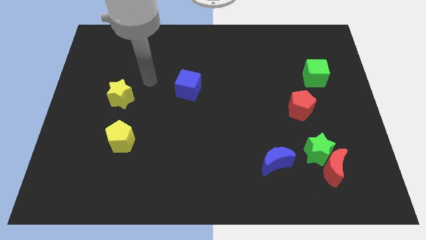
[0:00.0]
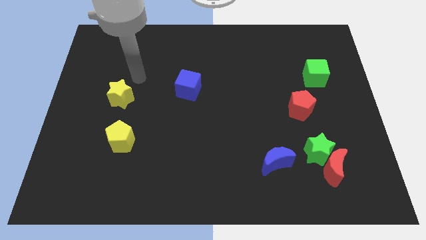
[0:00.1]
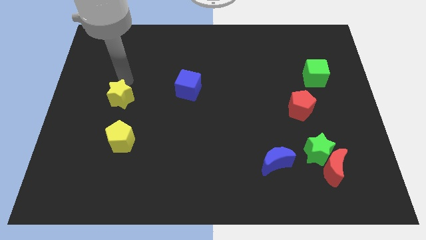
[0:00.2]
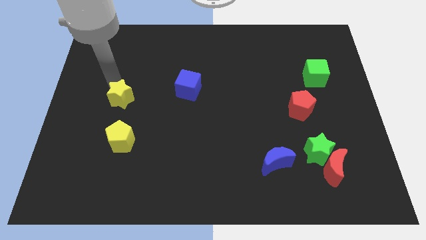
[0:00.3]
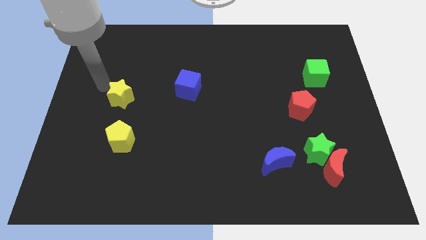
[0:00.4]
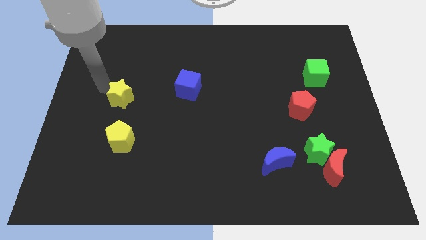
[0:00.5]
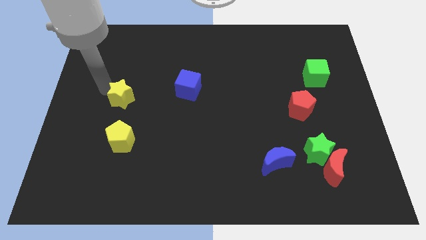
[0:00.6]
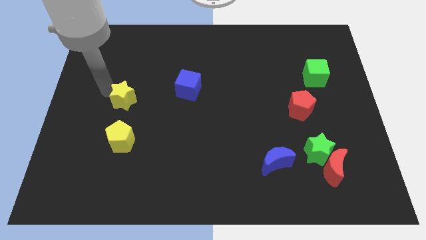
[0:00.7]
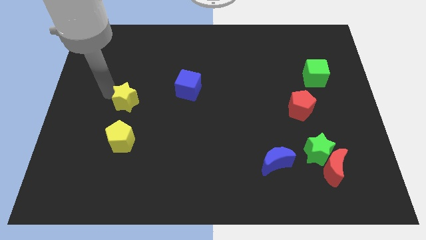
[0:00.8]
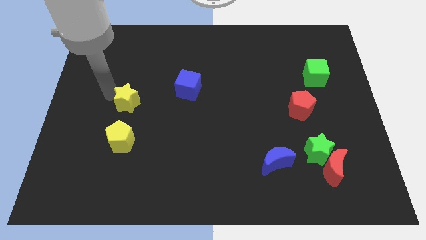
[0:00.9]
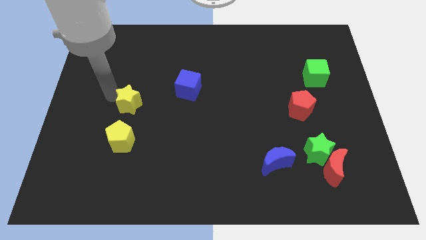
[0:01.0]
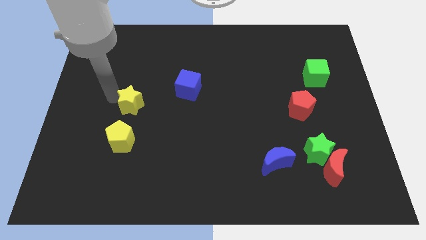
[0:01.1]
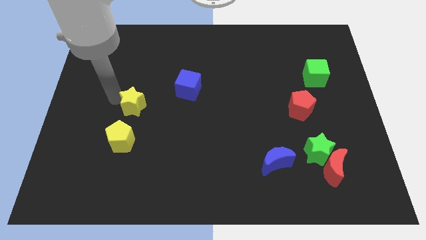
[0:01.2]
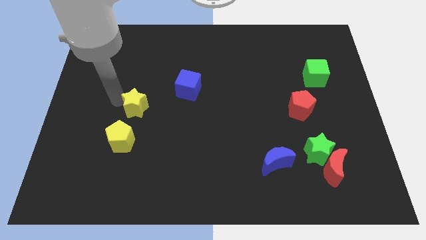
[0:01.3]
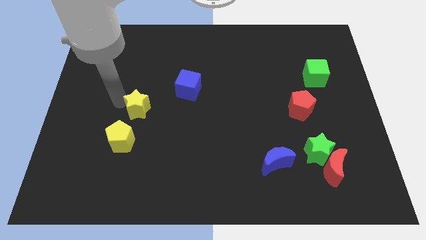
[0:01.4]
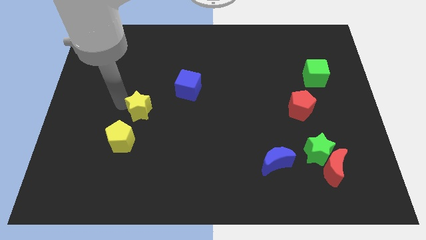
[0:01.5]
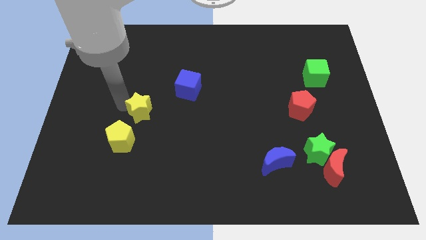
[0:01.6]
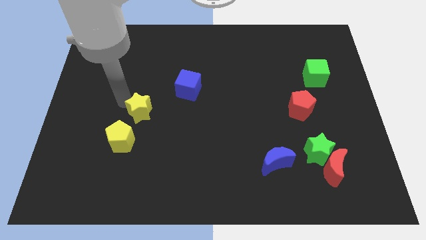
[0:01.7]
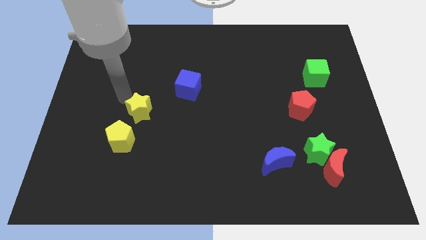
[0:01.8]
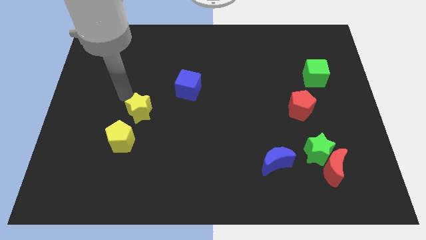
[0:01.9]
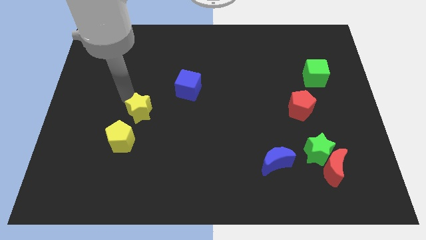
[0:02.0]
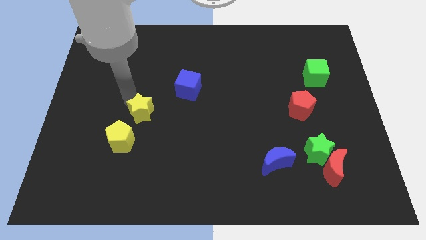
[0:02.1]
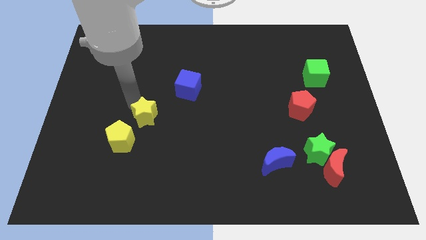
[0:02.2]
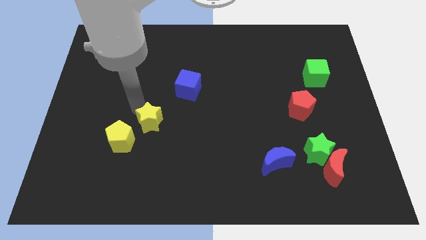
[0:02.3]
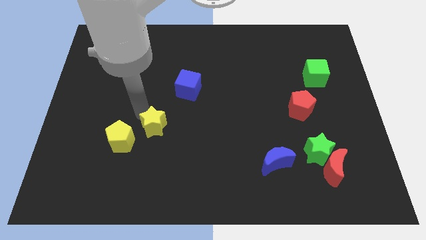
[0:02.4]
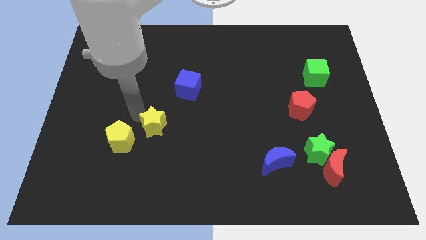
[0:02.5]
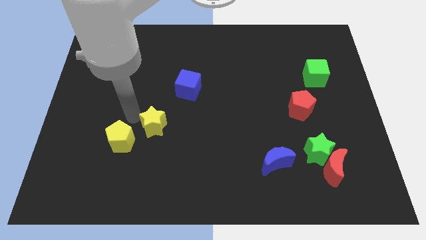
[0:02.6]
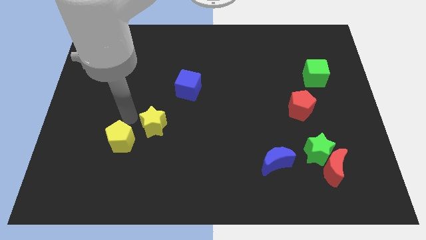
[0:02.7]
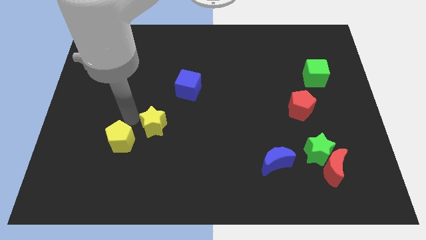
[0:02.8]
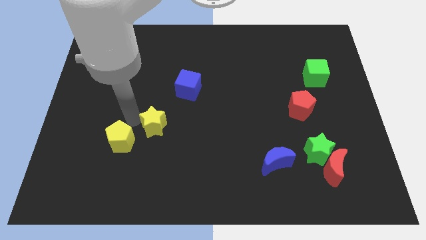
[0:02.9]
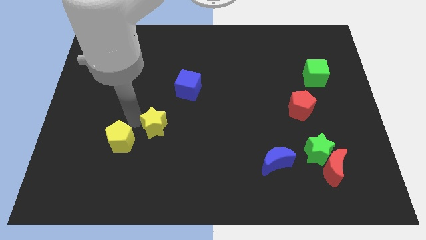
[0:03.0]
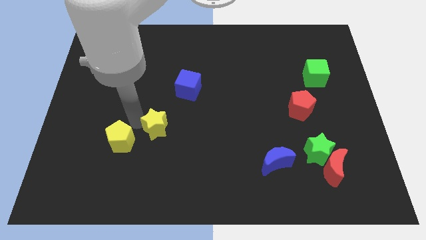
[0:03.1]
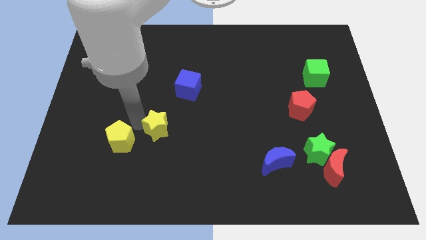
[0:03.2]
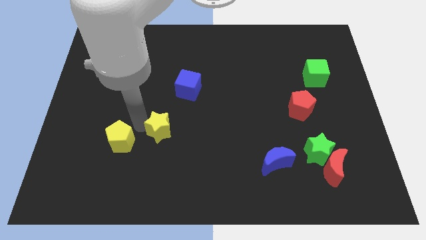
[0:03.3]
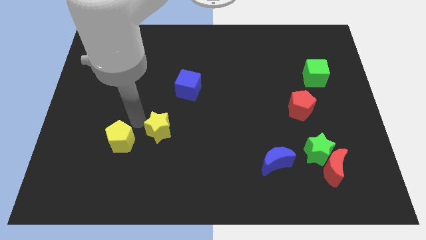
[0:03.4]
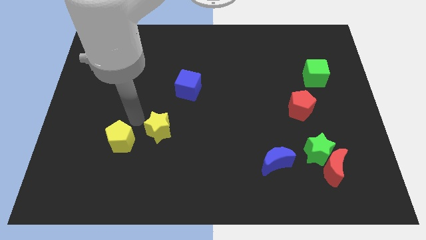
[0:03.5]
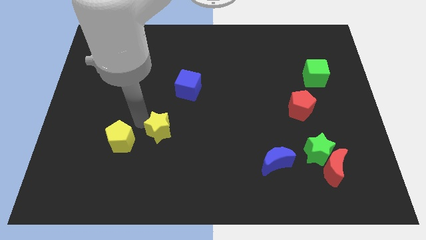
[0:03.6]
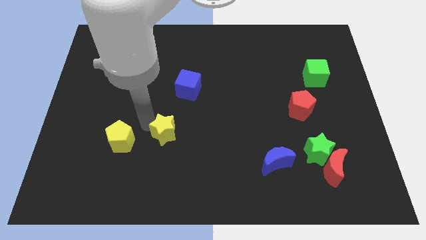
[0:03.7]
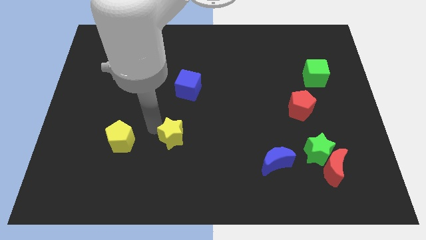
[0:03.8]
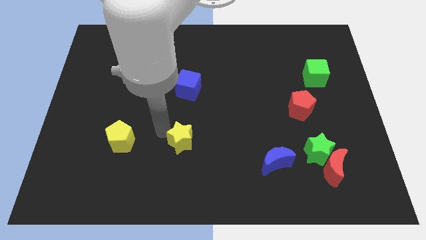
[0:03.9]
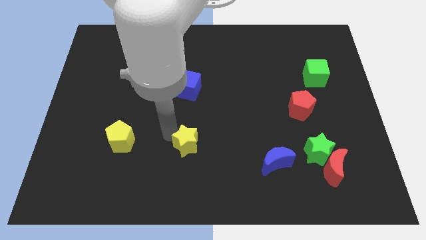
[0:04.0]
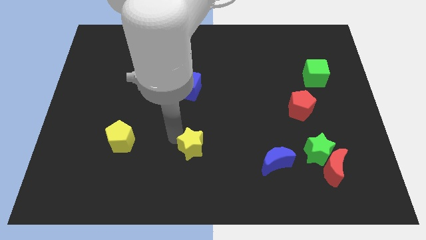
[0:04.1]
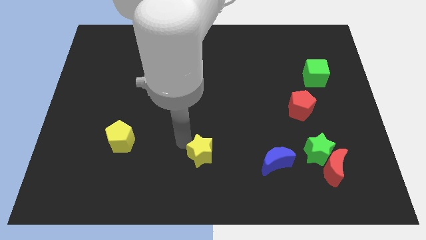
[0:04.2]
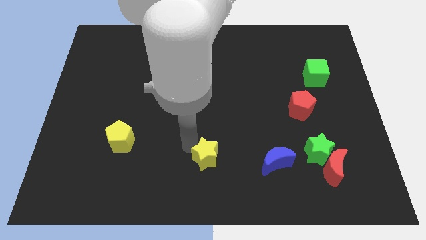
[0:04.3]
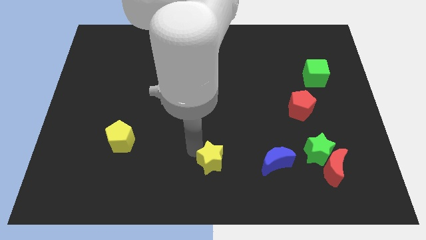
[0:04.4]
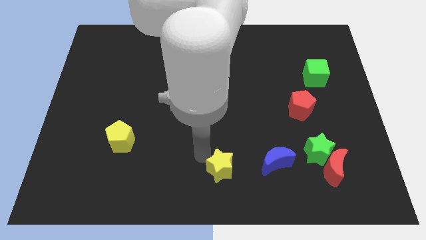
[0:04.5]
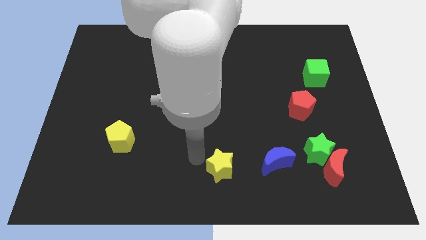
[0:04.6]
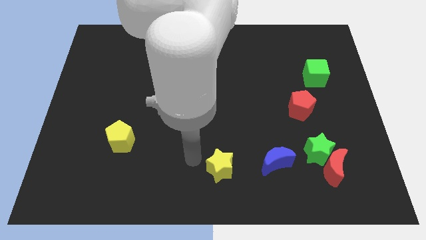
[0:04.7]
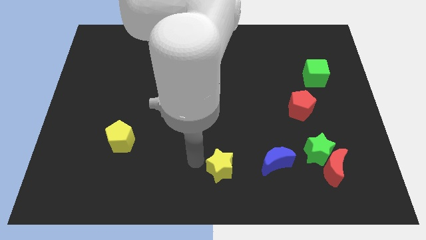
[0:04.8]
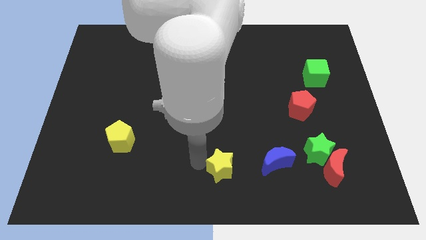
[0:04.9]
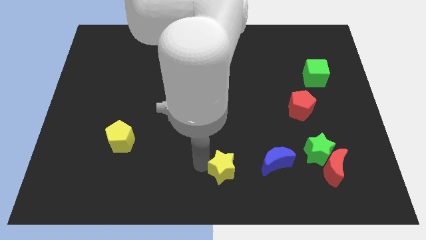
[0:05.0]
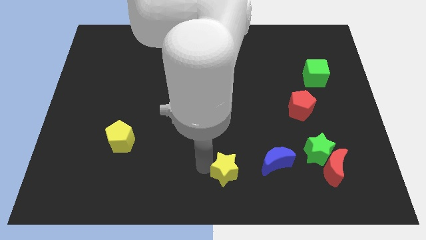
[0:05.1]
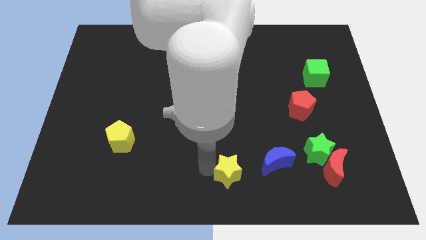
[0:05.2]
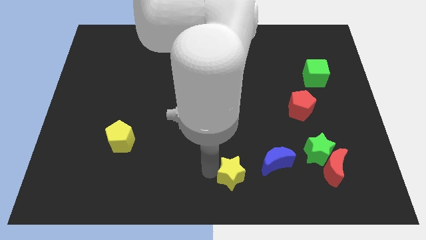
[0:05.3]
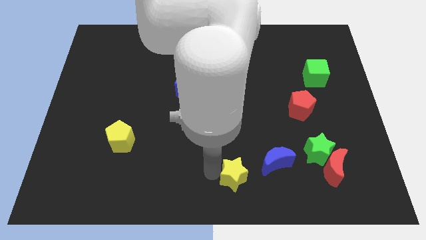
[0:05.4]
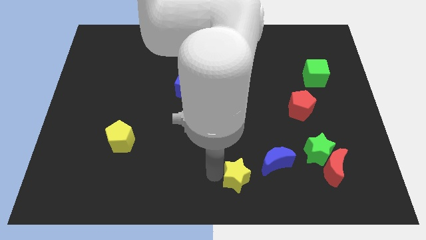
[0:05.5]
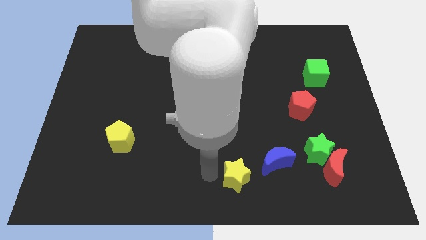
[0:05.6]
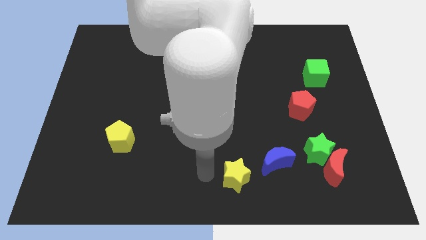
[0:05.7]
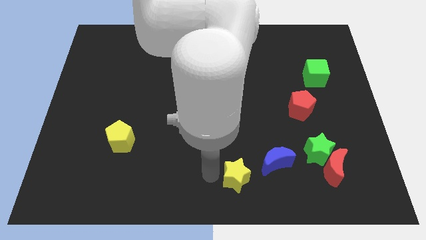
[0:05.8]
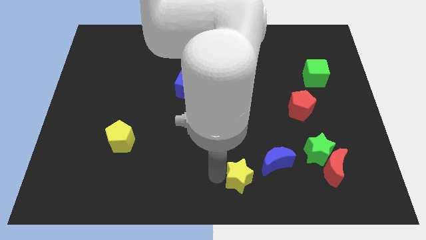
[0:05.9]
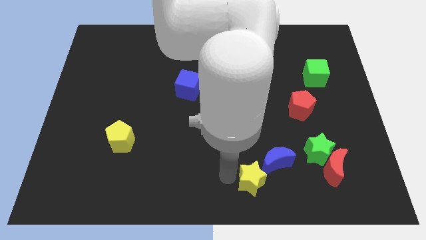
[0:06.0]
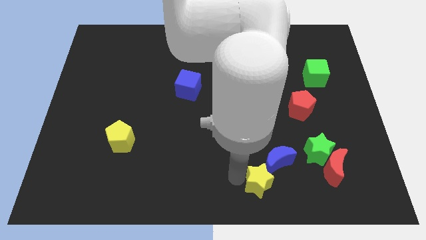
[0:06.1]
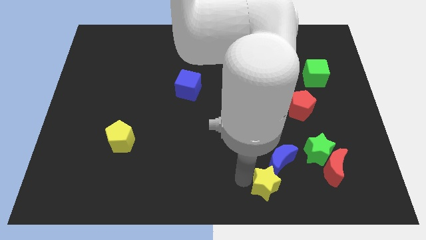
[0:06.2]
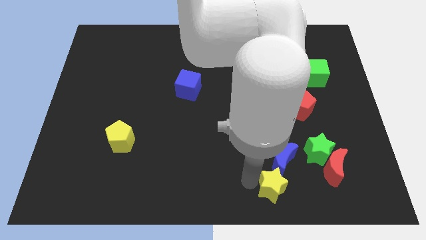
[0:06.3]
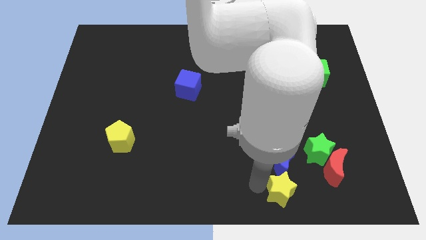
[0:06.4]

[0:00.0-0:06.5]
move the yellow star to the bottom left side of the green star
